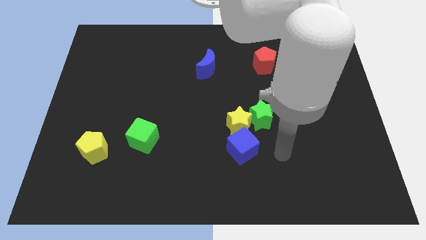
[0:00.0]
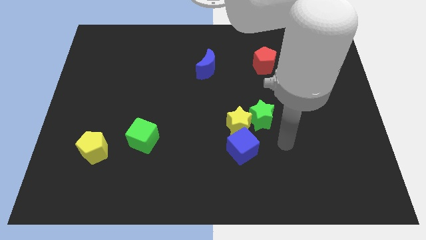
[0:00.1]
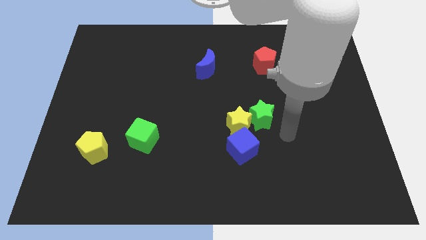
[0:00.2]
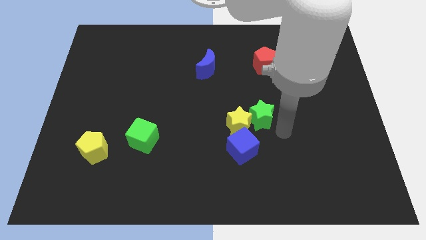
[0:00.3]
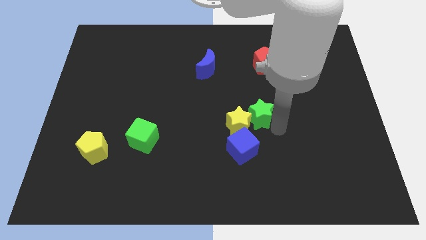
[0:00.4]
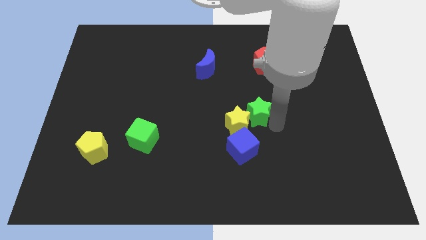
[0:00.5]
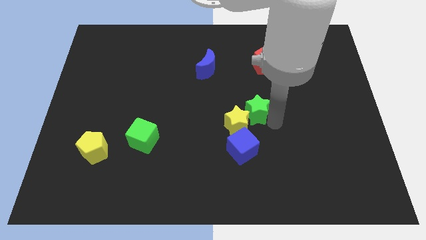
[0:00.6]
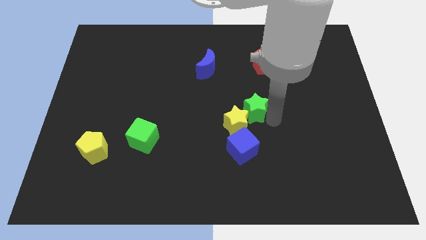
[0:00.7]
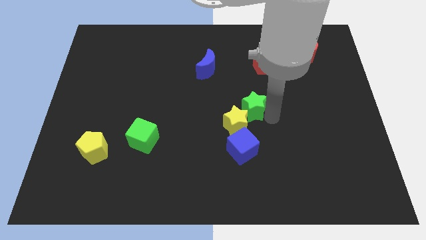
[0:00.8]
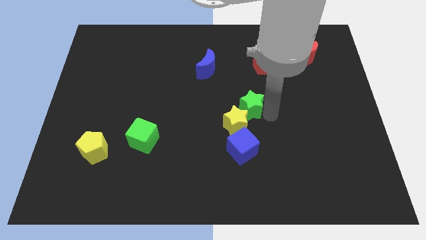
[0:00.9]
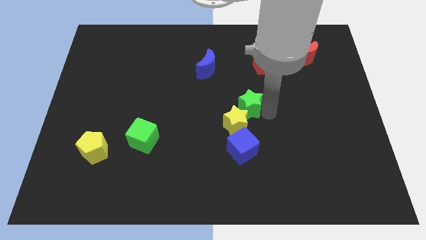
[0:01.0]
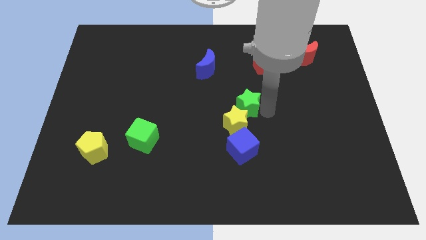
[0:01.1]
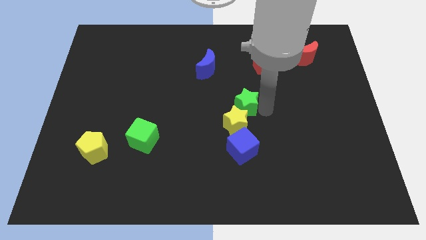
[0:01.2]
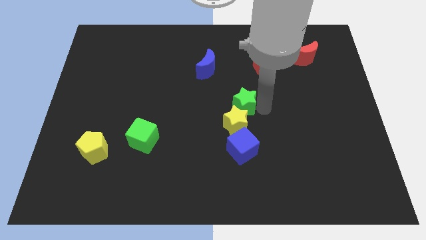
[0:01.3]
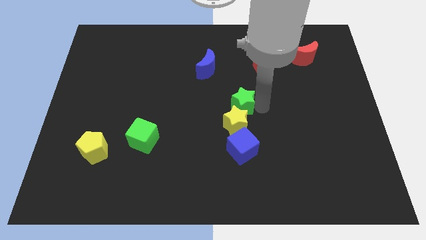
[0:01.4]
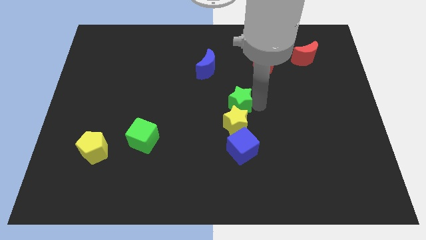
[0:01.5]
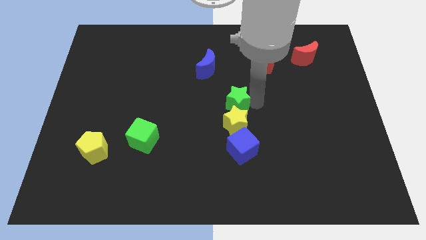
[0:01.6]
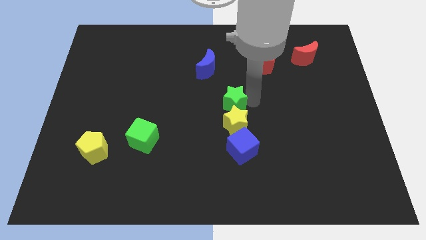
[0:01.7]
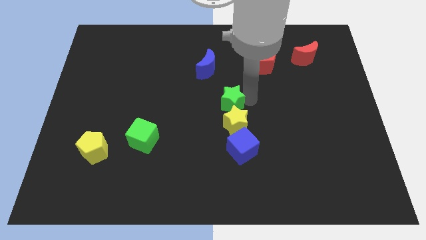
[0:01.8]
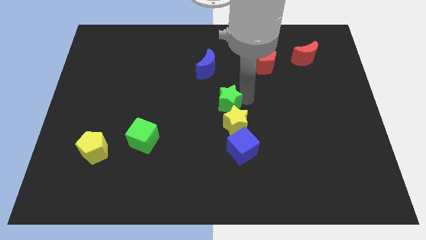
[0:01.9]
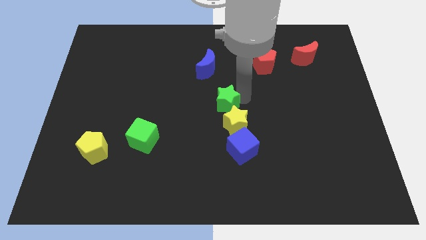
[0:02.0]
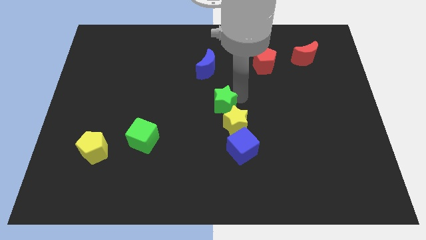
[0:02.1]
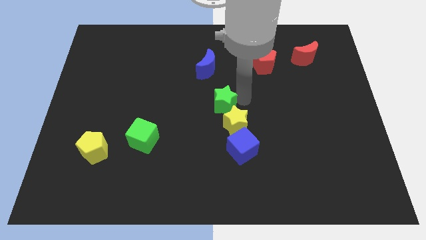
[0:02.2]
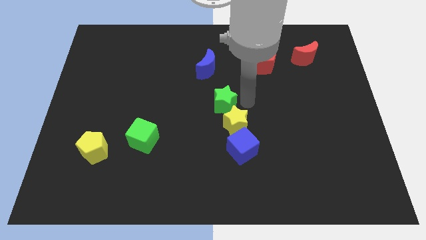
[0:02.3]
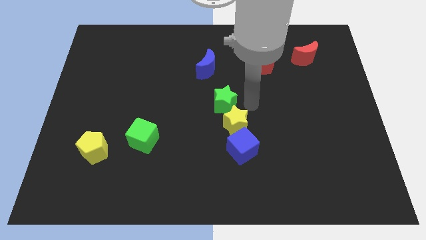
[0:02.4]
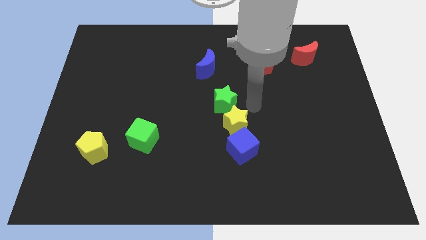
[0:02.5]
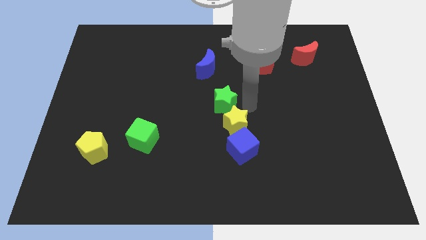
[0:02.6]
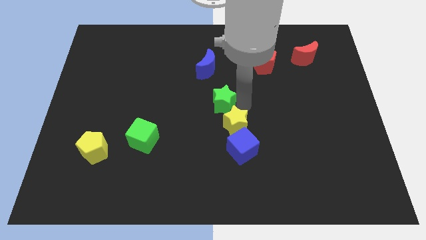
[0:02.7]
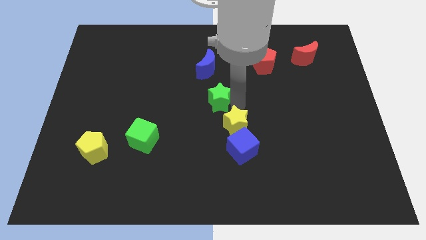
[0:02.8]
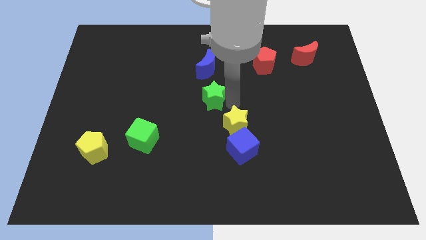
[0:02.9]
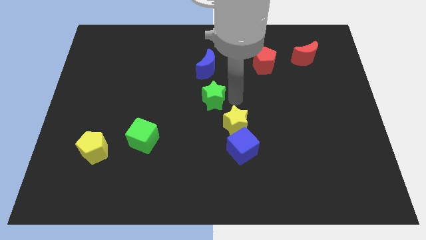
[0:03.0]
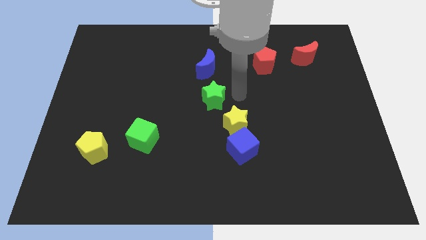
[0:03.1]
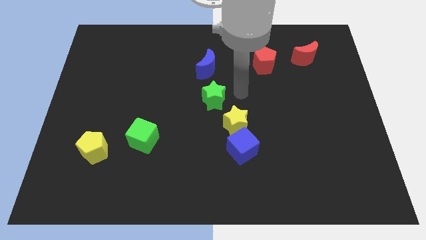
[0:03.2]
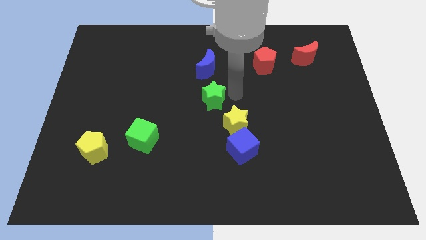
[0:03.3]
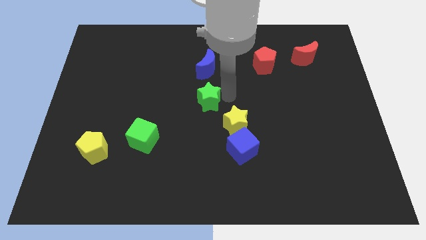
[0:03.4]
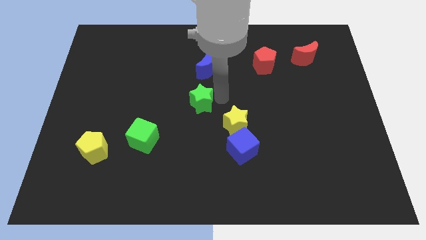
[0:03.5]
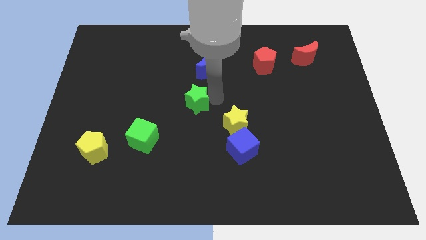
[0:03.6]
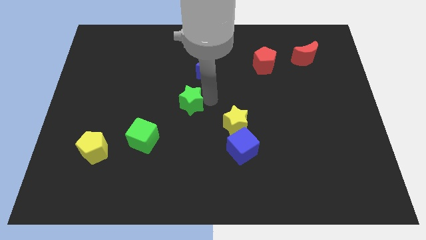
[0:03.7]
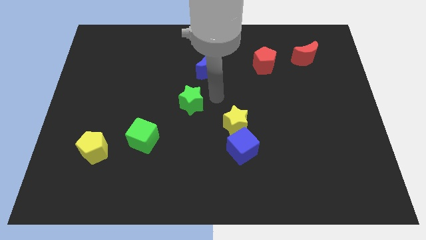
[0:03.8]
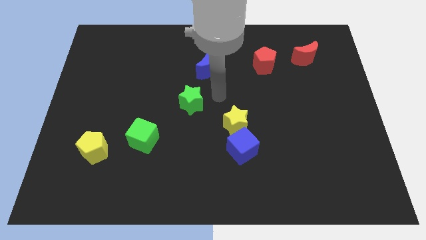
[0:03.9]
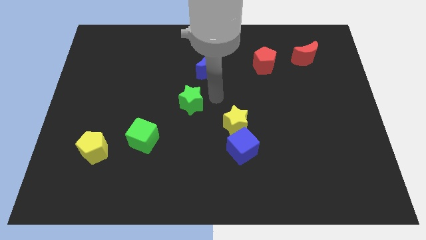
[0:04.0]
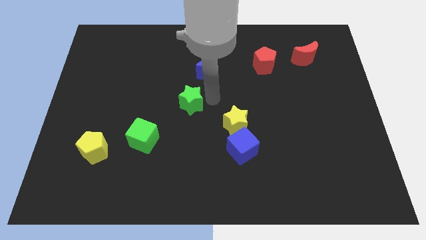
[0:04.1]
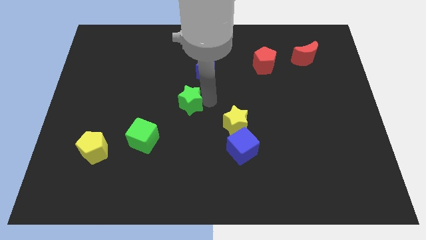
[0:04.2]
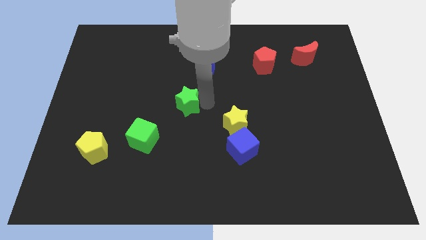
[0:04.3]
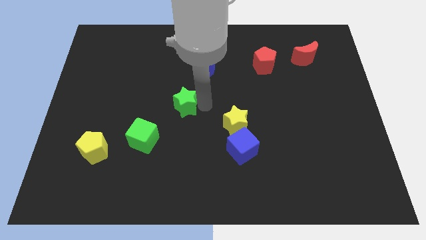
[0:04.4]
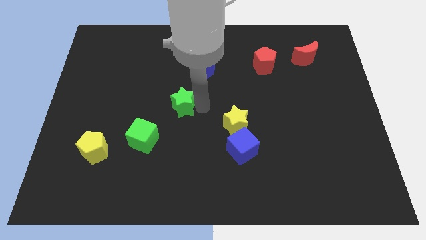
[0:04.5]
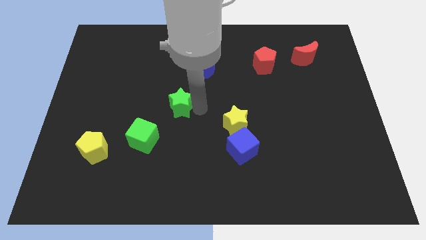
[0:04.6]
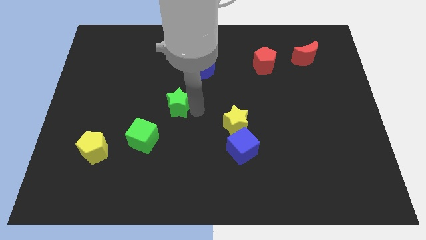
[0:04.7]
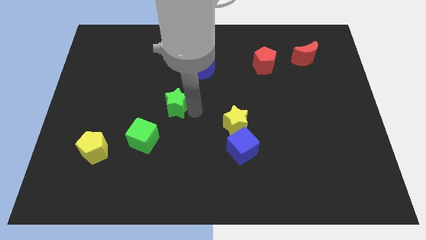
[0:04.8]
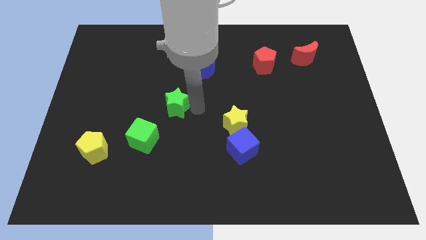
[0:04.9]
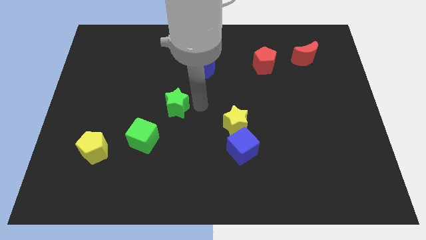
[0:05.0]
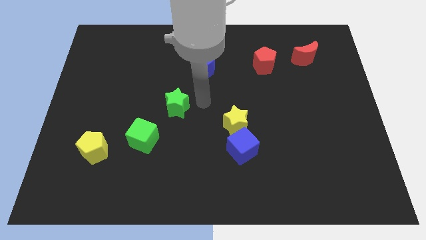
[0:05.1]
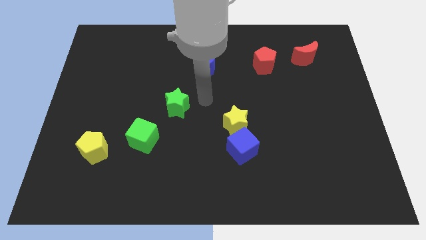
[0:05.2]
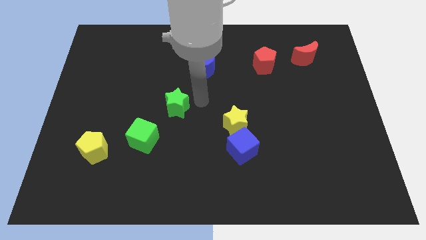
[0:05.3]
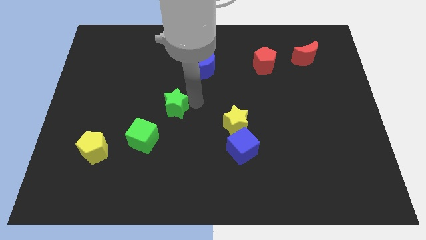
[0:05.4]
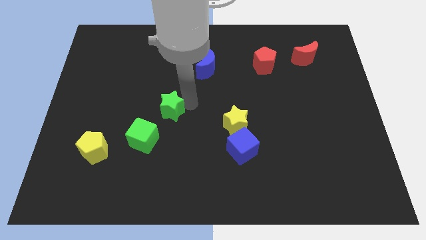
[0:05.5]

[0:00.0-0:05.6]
slide the green star to the left

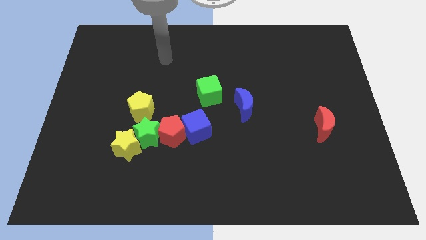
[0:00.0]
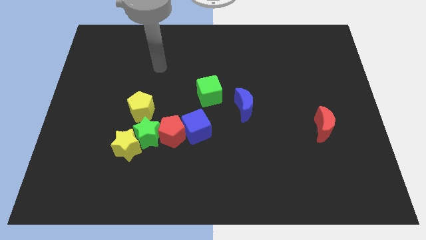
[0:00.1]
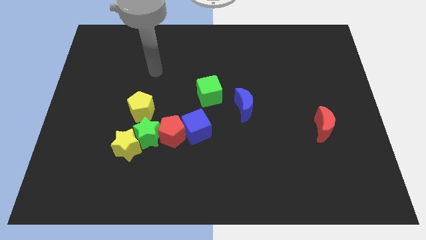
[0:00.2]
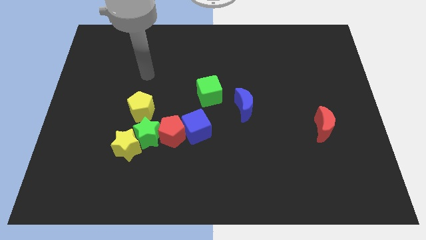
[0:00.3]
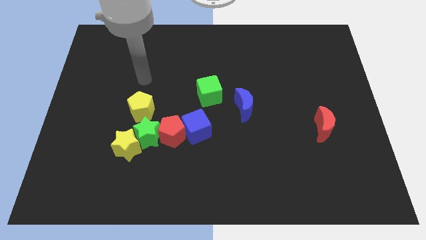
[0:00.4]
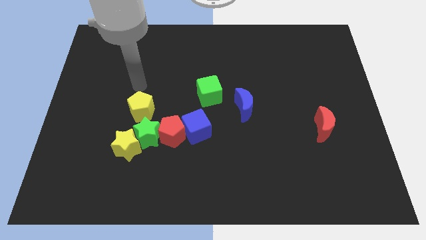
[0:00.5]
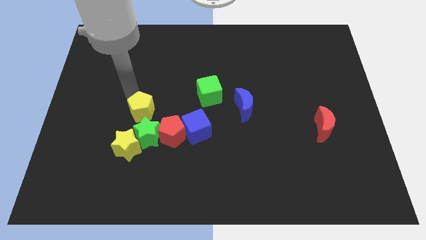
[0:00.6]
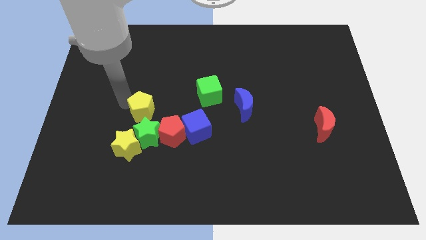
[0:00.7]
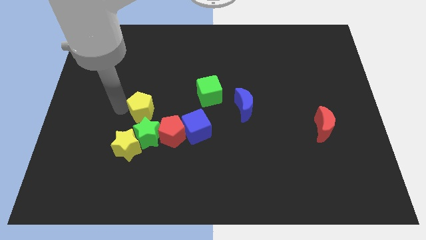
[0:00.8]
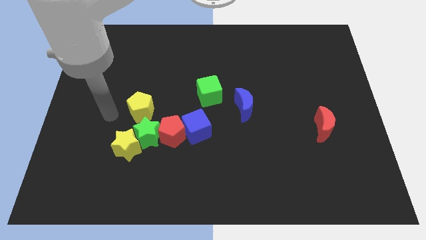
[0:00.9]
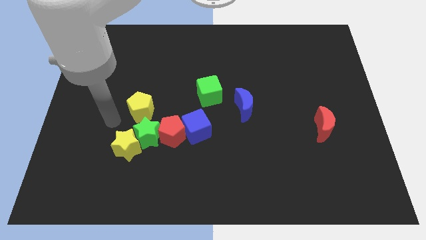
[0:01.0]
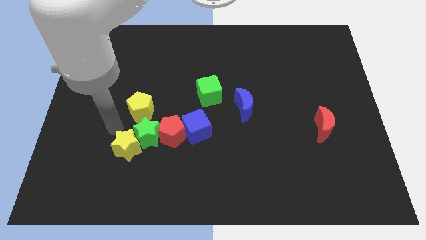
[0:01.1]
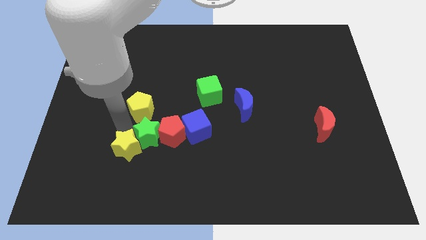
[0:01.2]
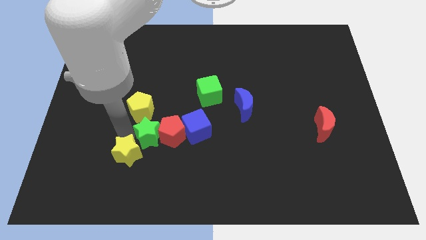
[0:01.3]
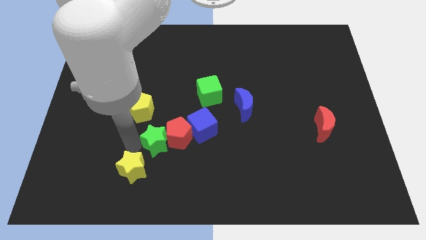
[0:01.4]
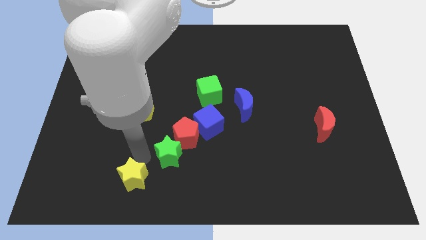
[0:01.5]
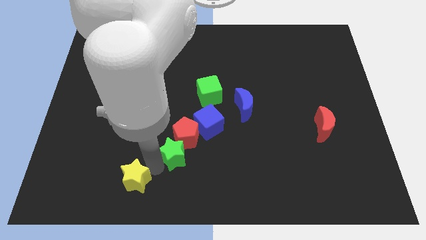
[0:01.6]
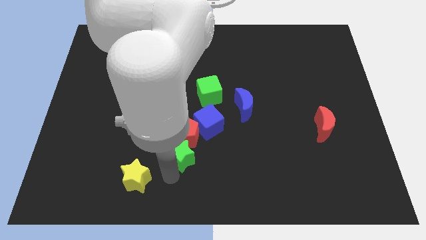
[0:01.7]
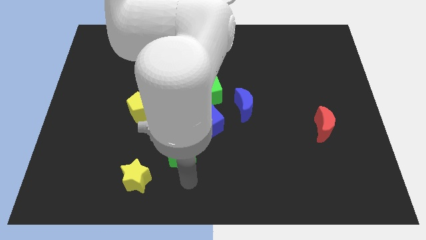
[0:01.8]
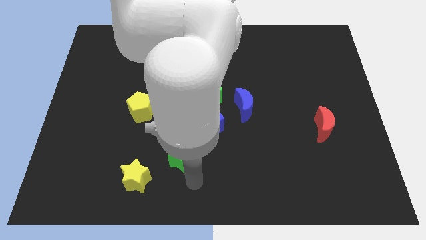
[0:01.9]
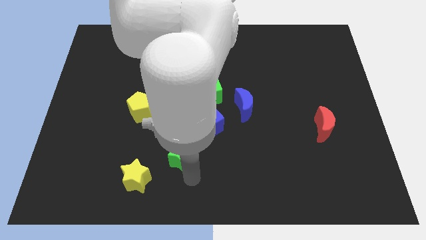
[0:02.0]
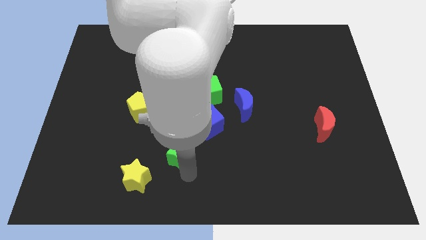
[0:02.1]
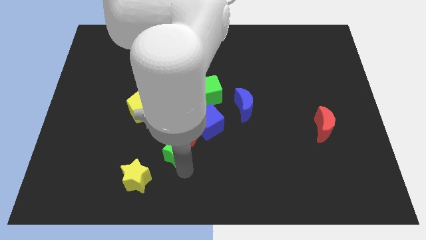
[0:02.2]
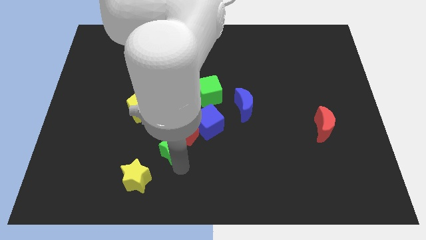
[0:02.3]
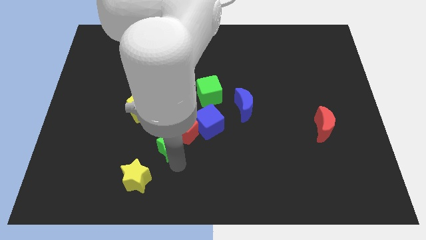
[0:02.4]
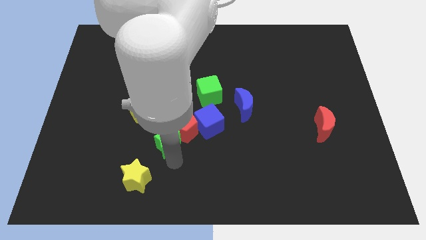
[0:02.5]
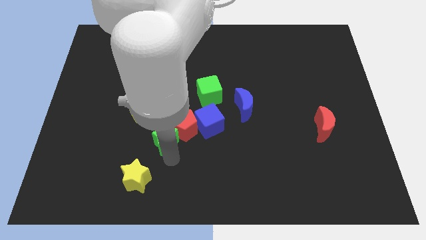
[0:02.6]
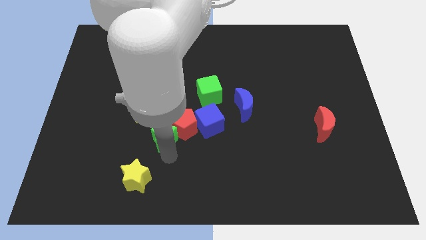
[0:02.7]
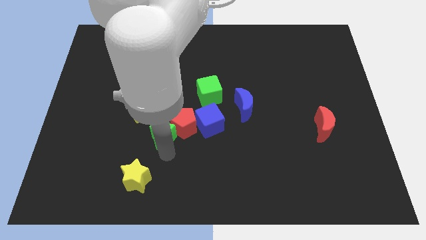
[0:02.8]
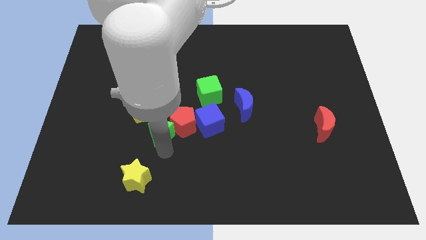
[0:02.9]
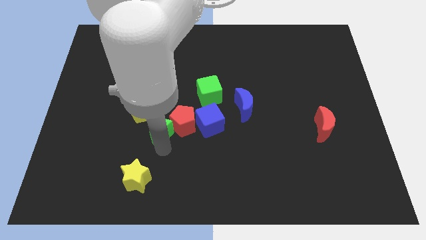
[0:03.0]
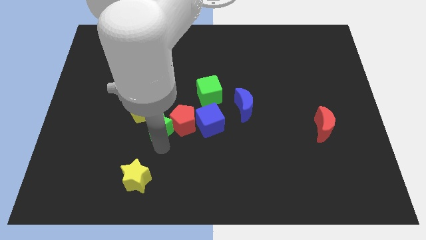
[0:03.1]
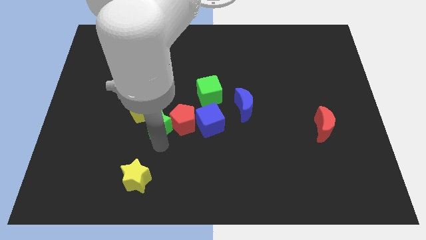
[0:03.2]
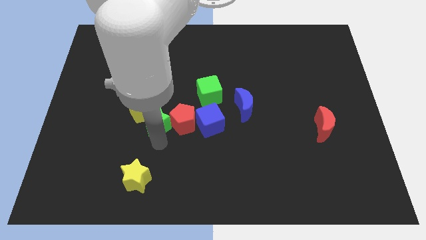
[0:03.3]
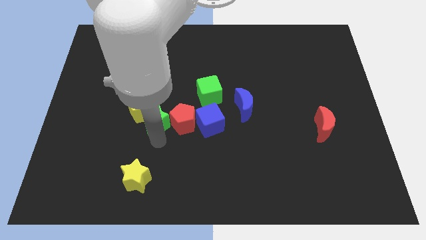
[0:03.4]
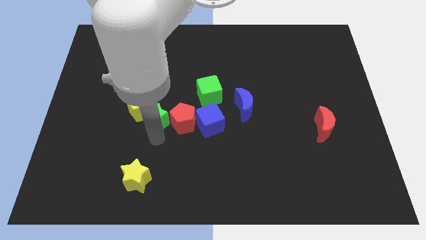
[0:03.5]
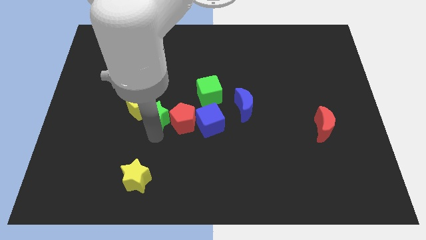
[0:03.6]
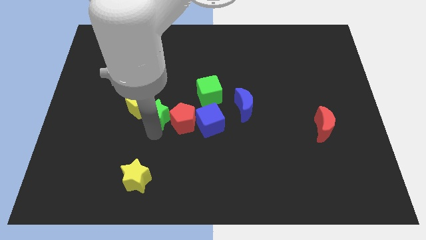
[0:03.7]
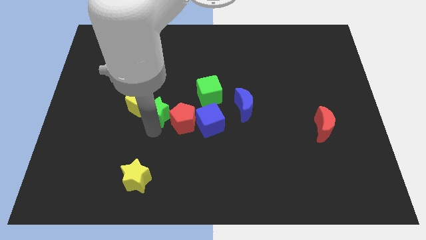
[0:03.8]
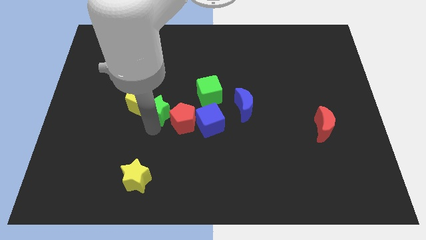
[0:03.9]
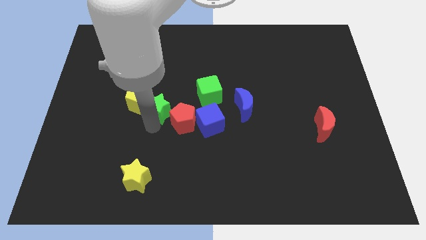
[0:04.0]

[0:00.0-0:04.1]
push the green star somewhat upwards
